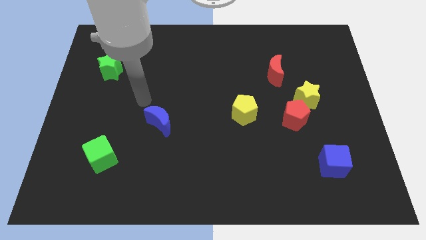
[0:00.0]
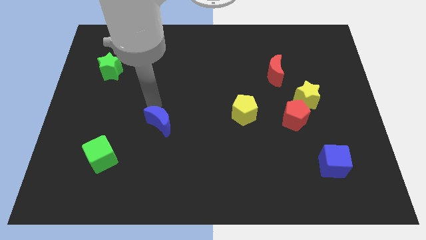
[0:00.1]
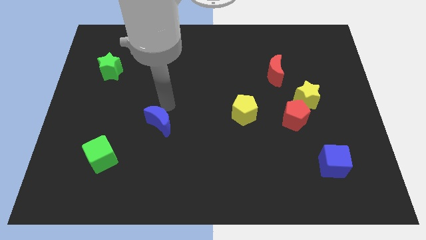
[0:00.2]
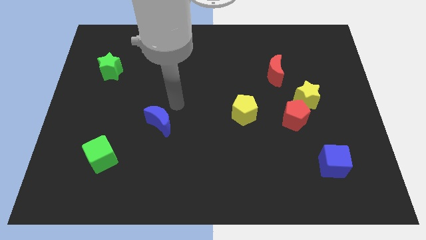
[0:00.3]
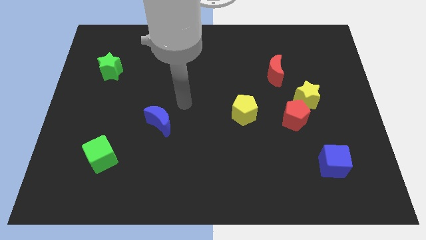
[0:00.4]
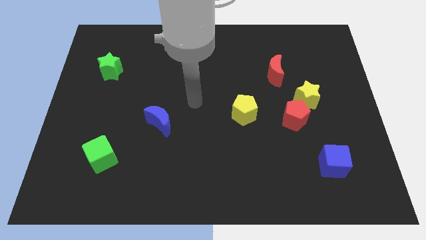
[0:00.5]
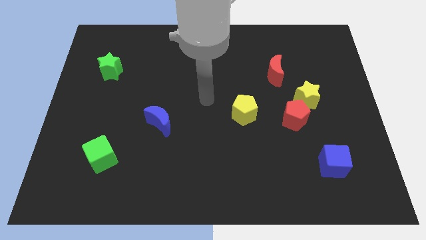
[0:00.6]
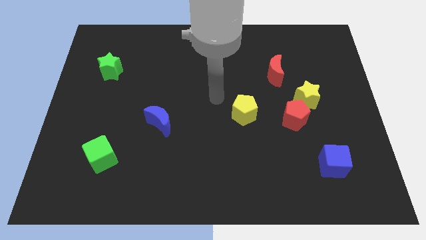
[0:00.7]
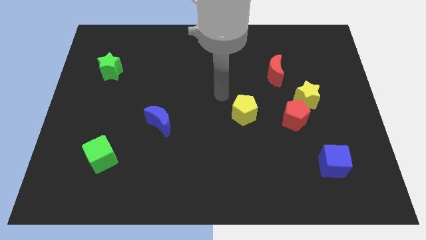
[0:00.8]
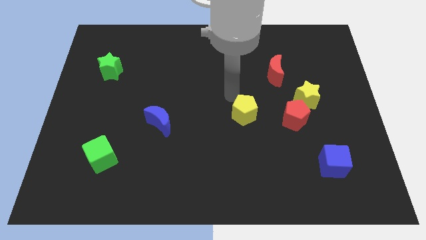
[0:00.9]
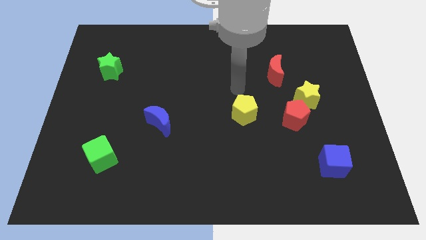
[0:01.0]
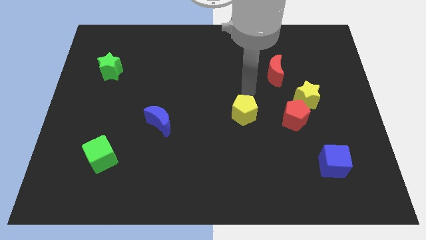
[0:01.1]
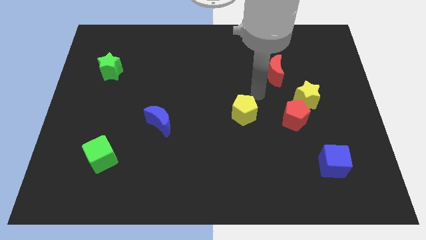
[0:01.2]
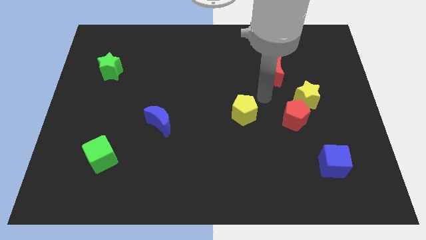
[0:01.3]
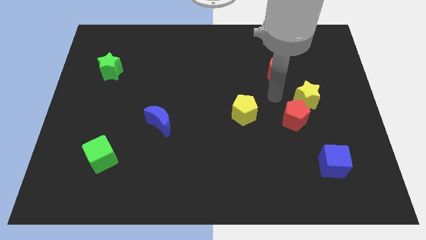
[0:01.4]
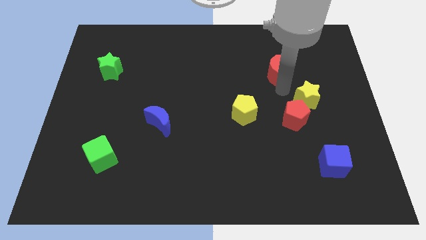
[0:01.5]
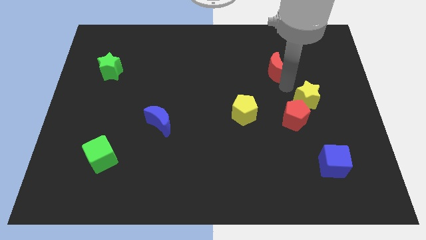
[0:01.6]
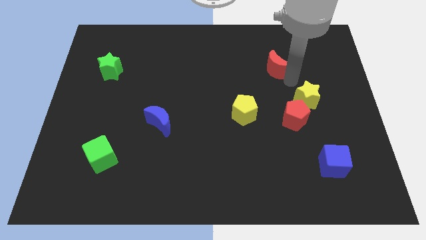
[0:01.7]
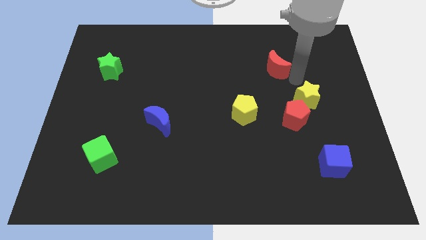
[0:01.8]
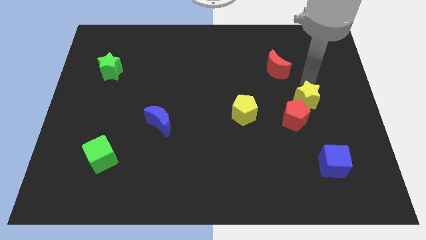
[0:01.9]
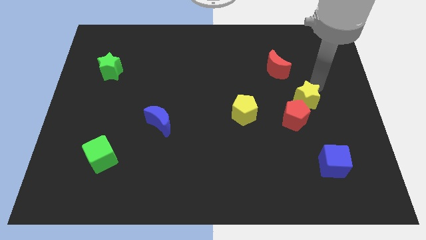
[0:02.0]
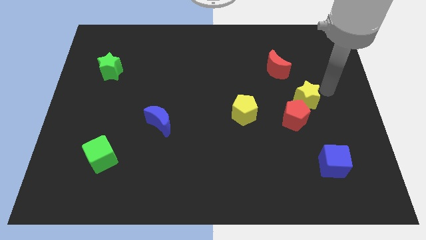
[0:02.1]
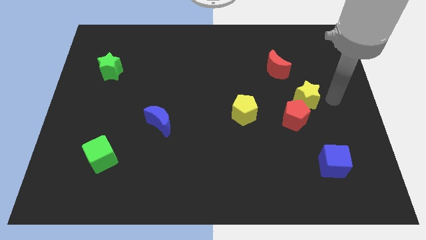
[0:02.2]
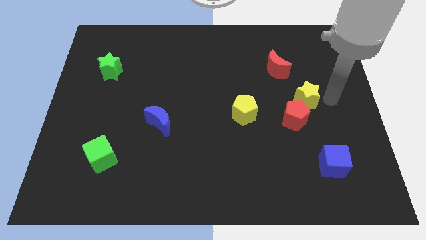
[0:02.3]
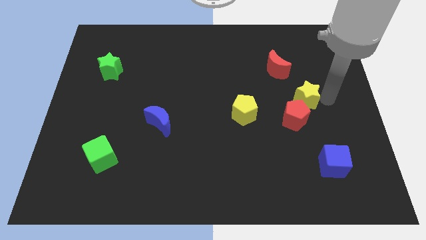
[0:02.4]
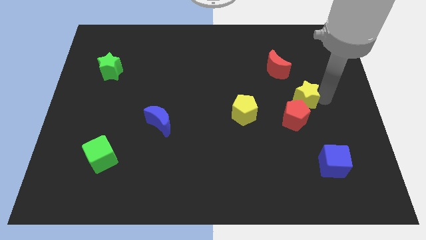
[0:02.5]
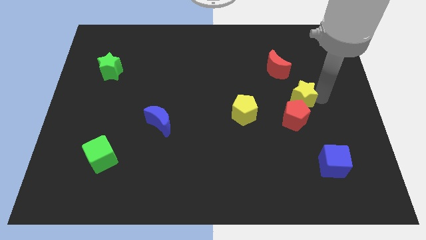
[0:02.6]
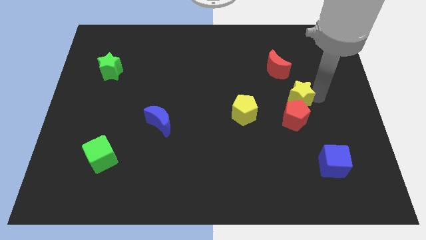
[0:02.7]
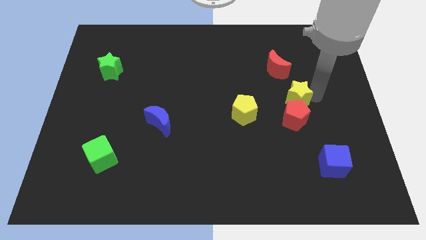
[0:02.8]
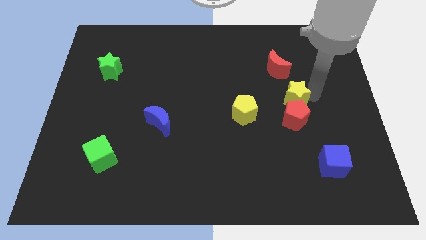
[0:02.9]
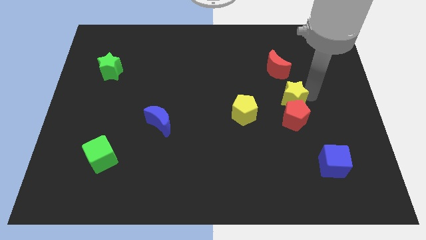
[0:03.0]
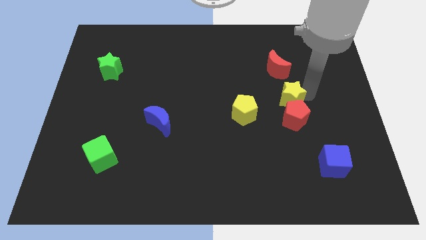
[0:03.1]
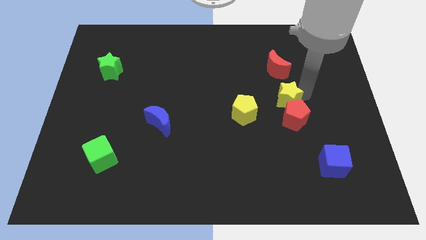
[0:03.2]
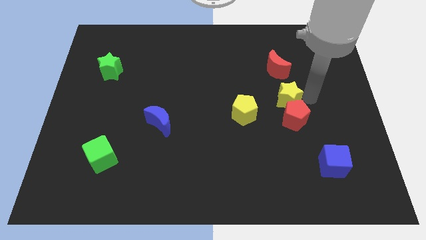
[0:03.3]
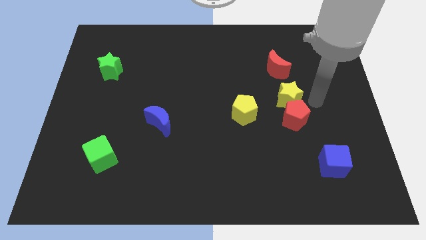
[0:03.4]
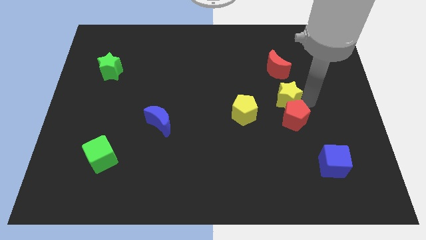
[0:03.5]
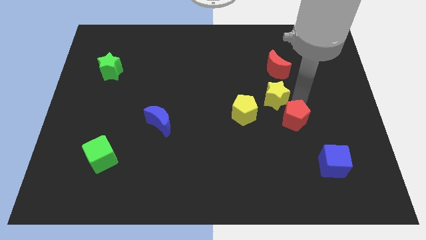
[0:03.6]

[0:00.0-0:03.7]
move the yellow star to the left a little

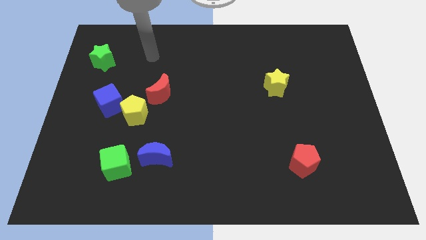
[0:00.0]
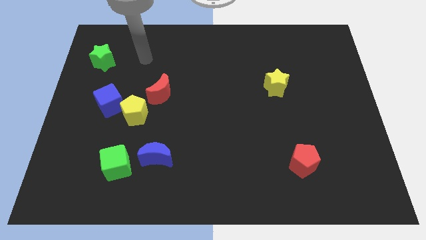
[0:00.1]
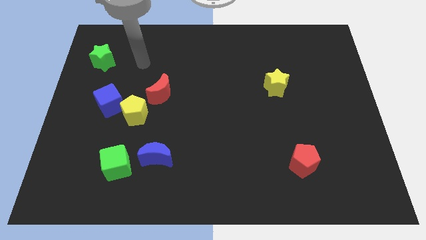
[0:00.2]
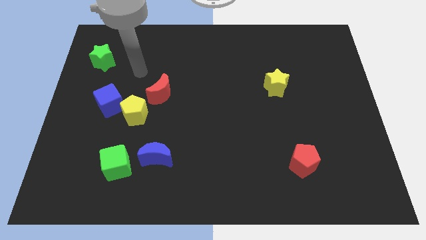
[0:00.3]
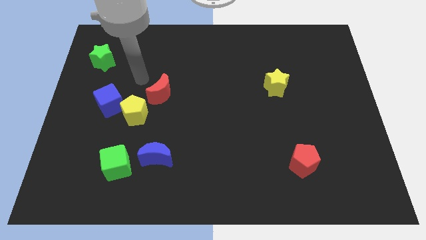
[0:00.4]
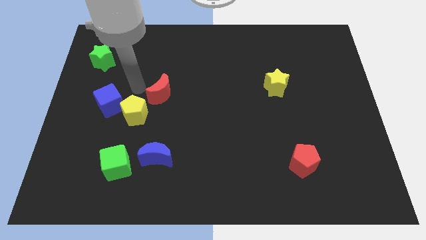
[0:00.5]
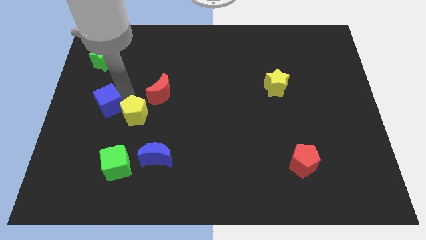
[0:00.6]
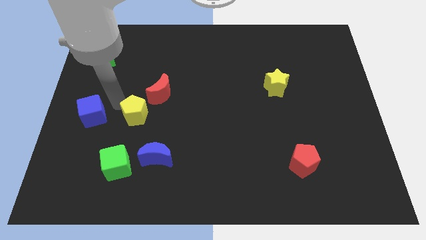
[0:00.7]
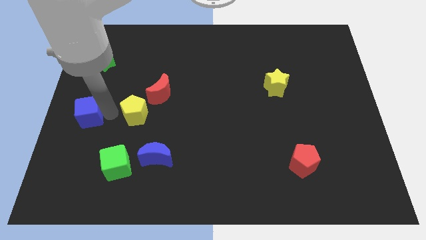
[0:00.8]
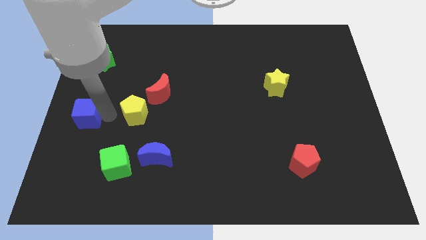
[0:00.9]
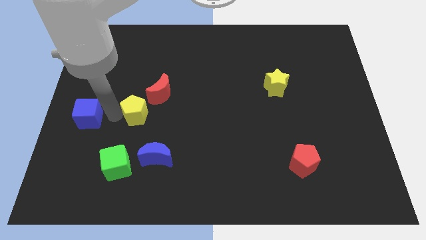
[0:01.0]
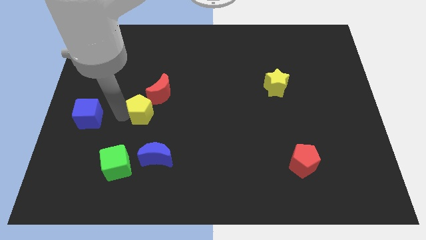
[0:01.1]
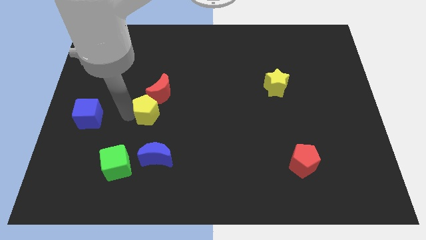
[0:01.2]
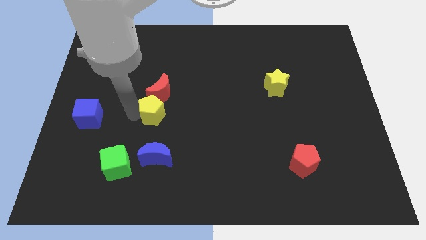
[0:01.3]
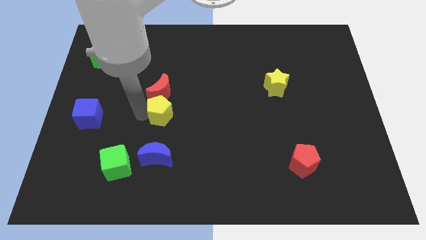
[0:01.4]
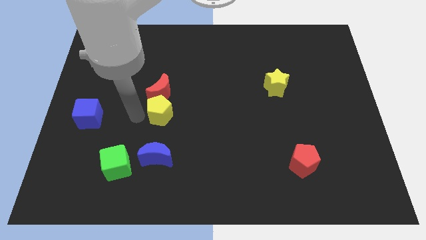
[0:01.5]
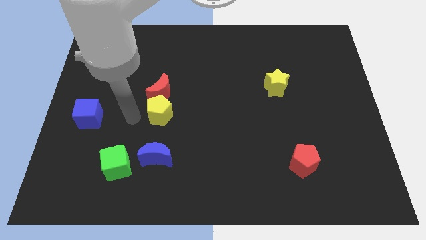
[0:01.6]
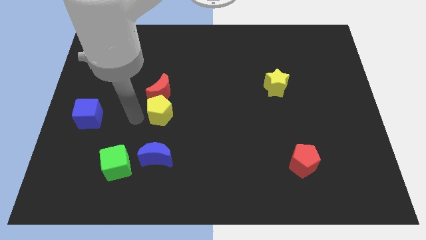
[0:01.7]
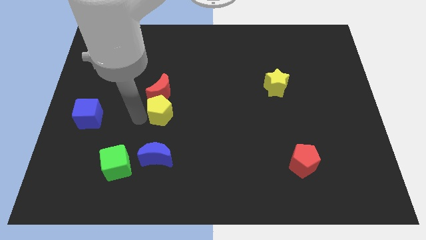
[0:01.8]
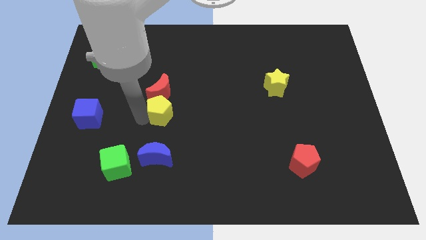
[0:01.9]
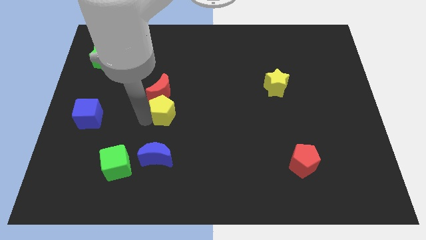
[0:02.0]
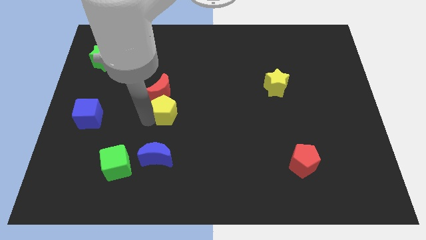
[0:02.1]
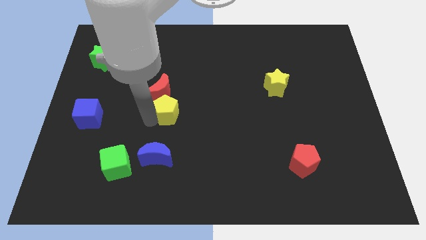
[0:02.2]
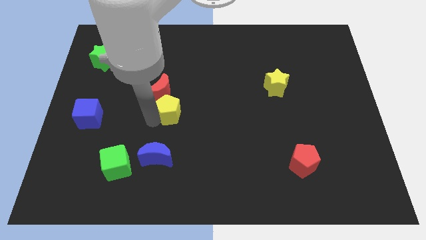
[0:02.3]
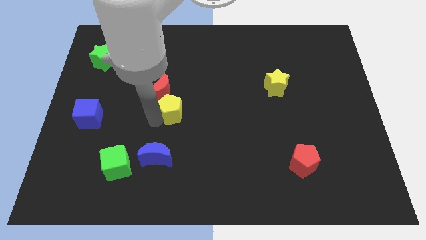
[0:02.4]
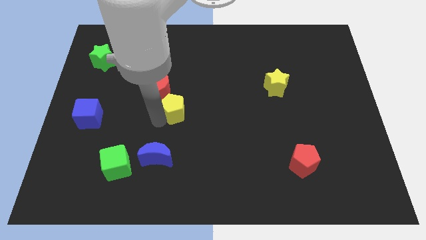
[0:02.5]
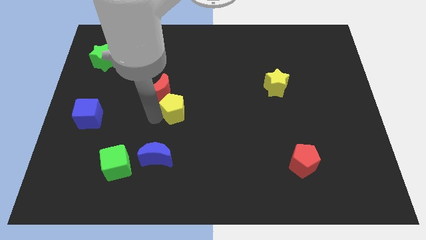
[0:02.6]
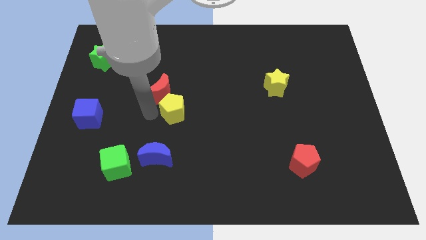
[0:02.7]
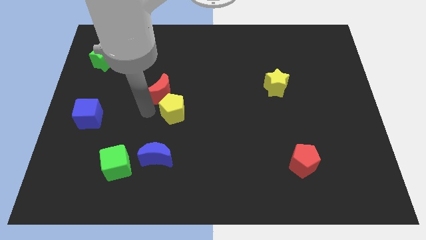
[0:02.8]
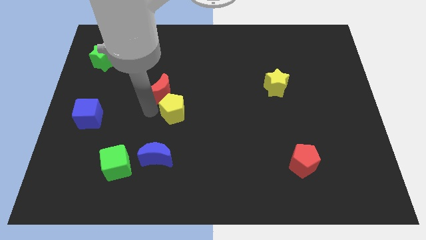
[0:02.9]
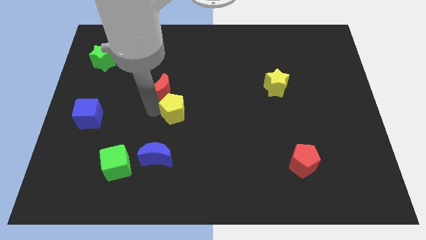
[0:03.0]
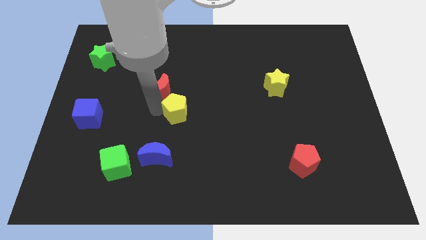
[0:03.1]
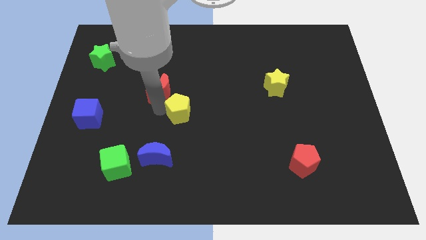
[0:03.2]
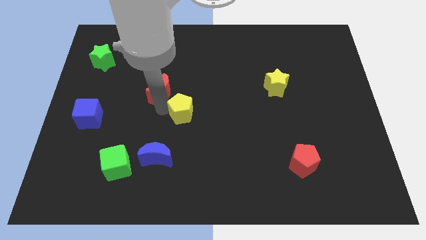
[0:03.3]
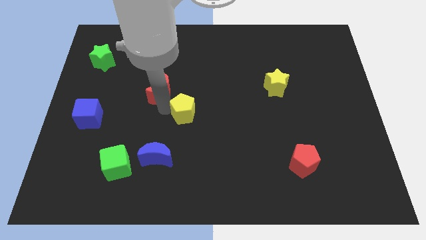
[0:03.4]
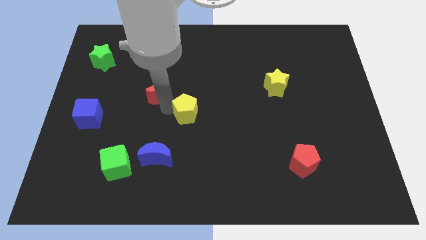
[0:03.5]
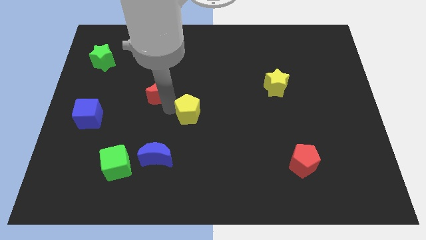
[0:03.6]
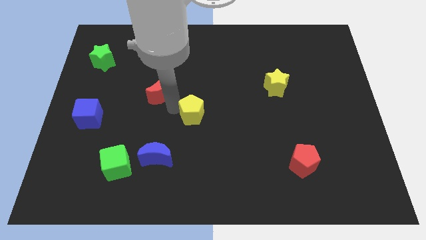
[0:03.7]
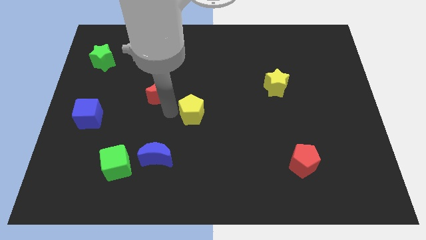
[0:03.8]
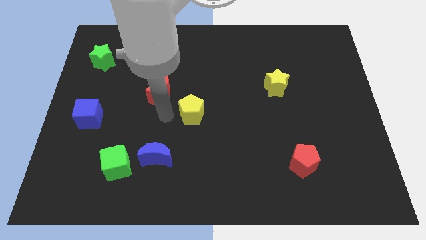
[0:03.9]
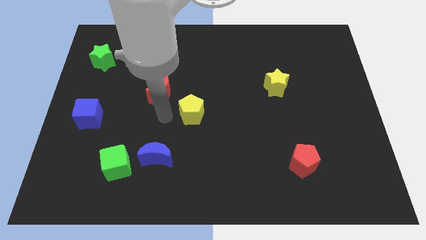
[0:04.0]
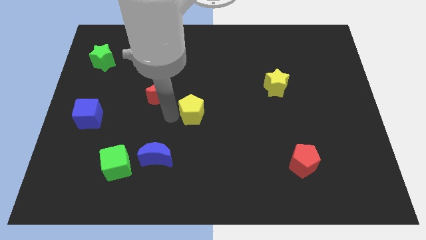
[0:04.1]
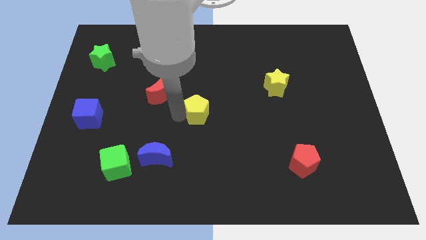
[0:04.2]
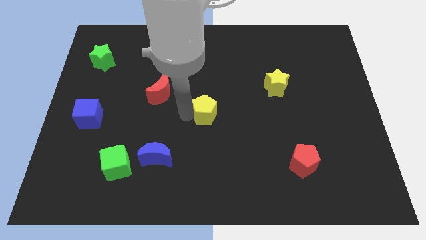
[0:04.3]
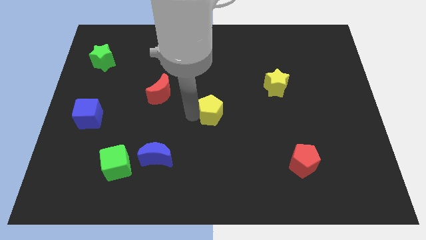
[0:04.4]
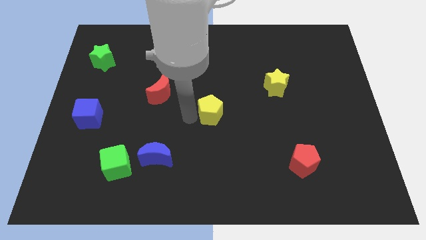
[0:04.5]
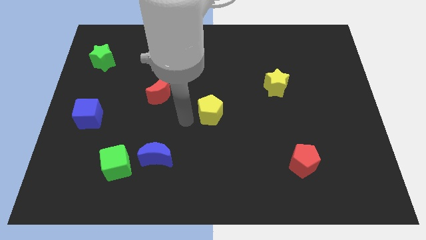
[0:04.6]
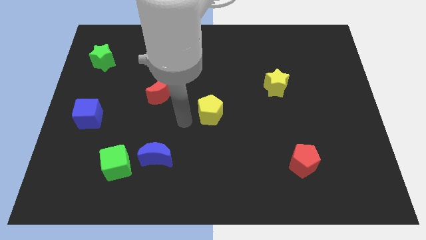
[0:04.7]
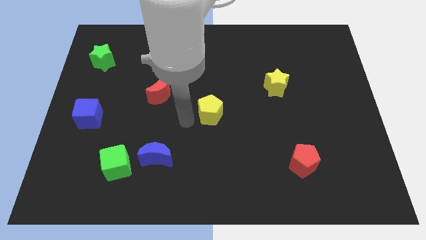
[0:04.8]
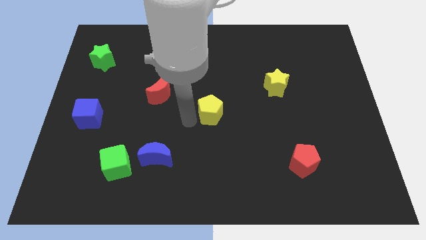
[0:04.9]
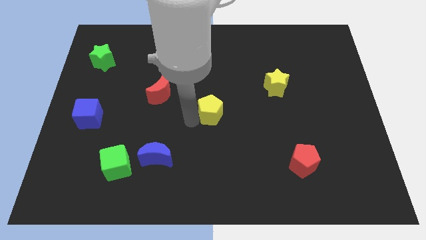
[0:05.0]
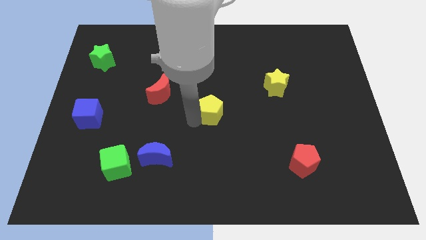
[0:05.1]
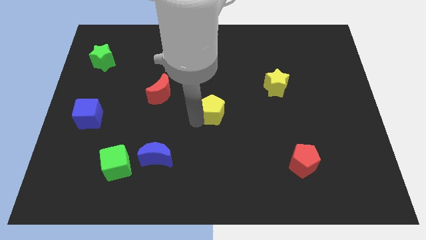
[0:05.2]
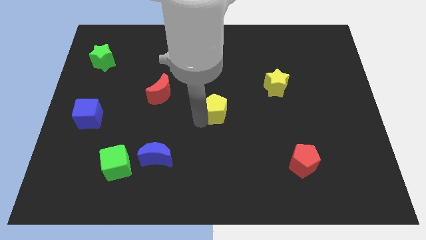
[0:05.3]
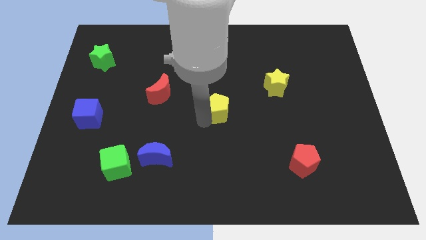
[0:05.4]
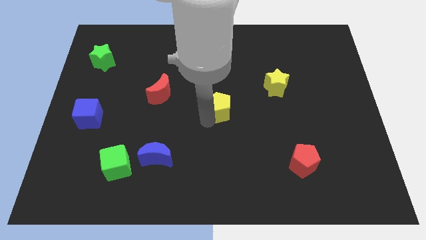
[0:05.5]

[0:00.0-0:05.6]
push the yellow pentagon to the right
